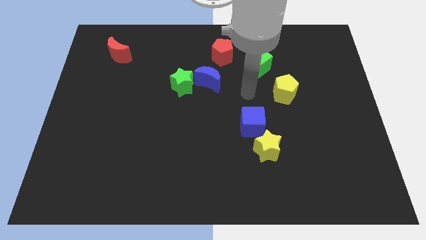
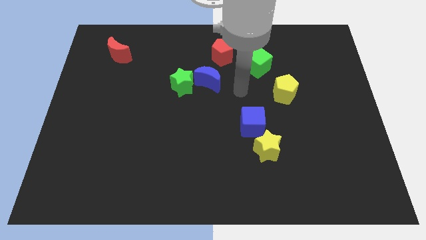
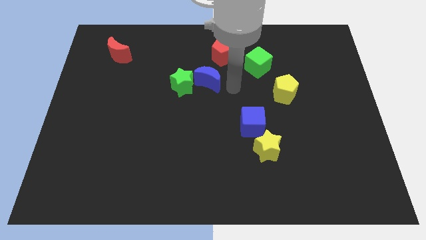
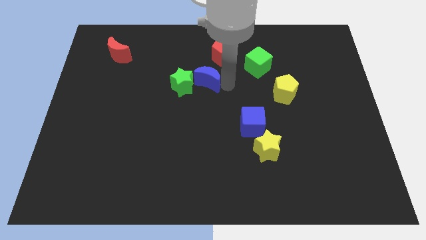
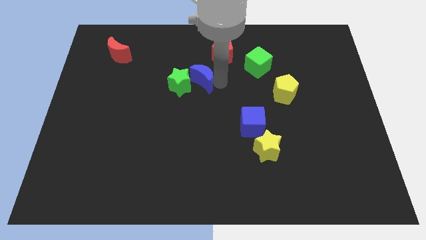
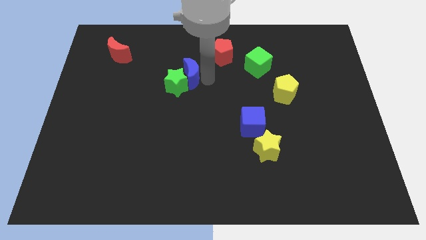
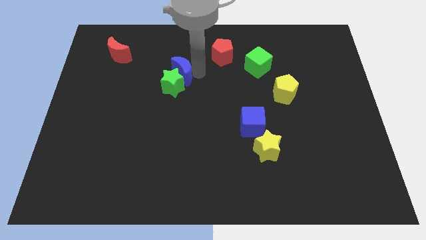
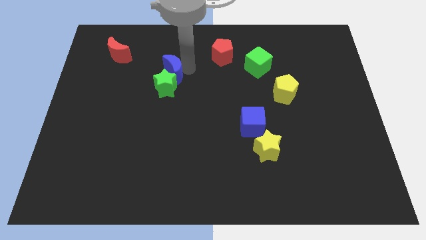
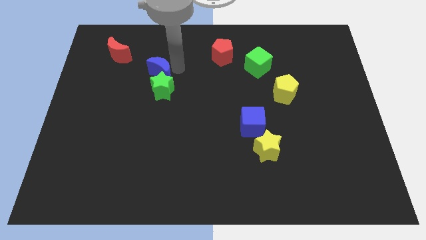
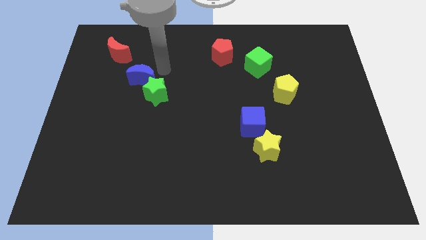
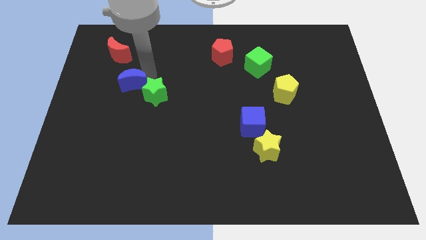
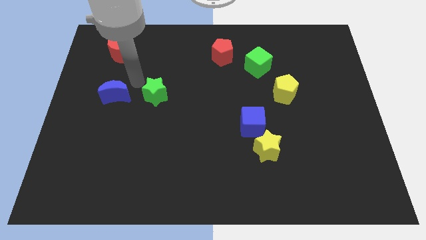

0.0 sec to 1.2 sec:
move the green star away from the blue moon

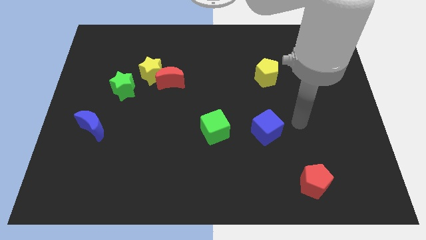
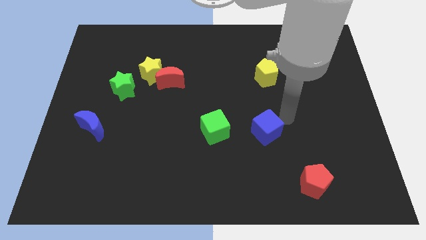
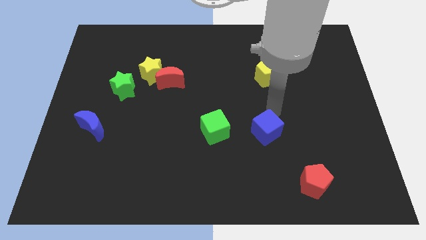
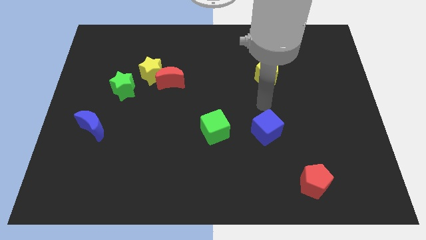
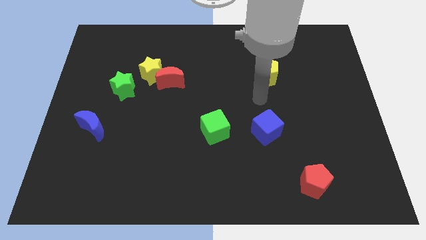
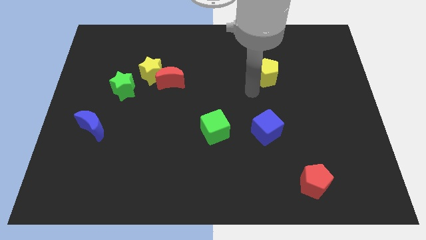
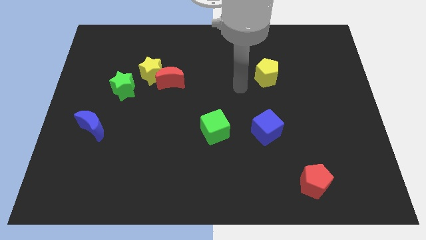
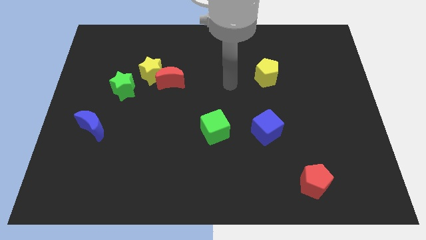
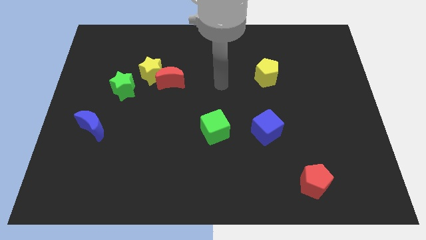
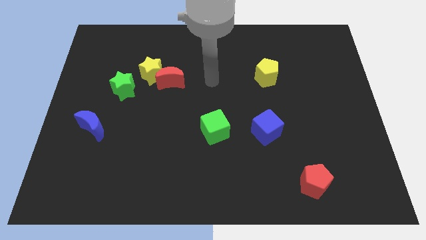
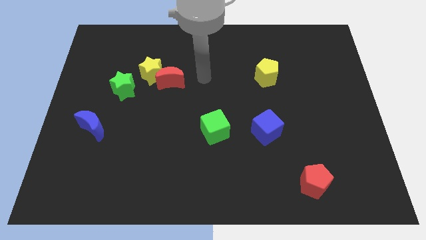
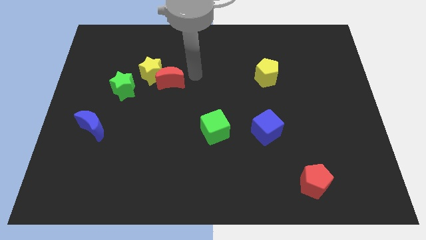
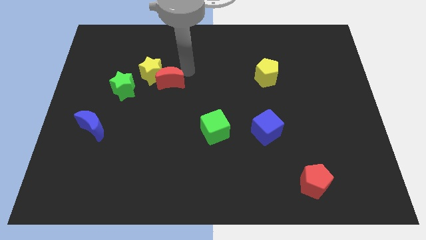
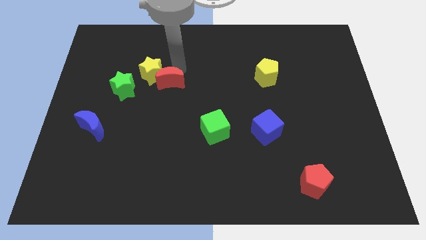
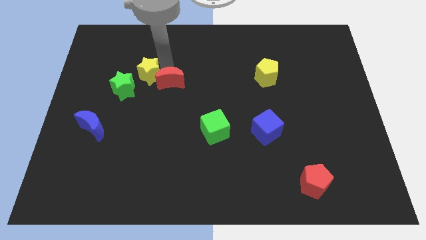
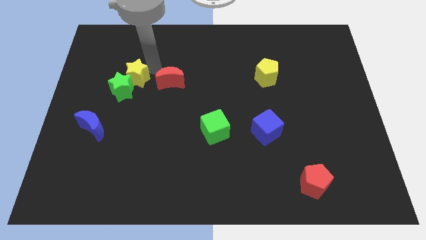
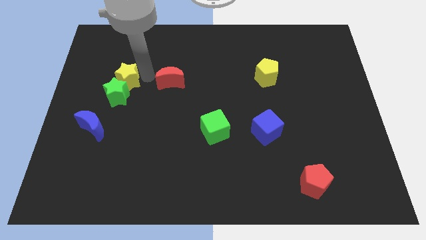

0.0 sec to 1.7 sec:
separate the red moon from the yellow star

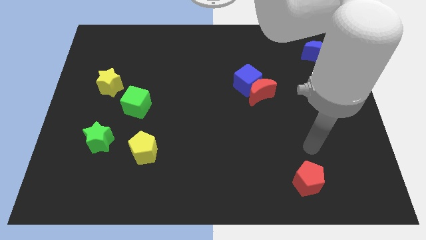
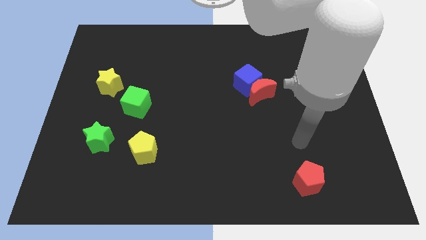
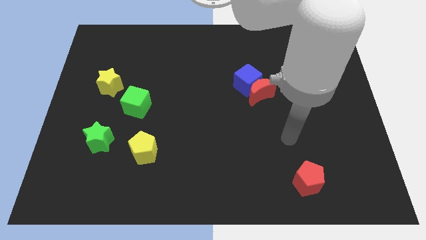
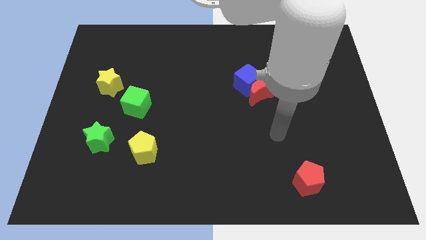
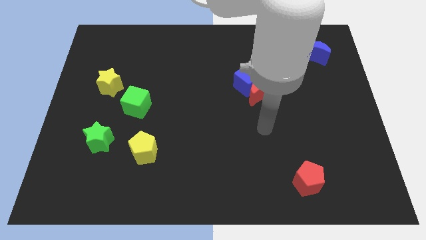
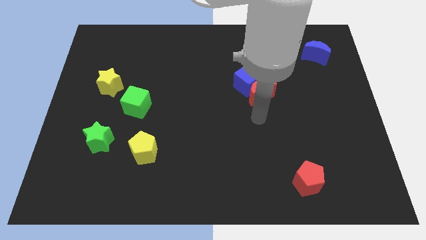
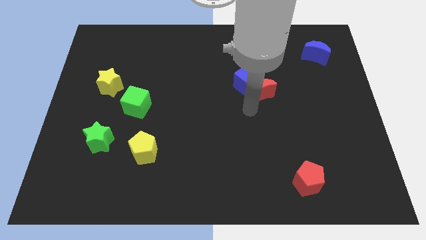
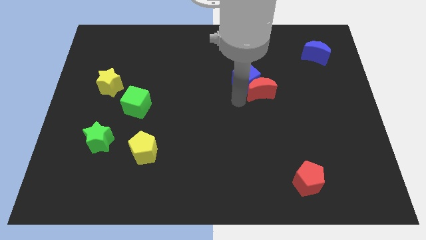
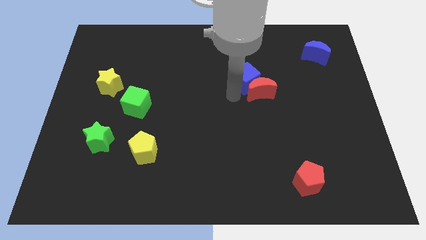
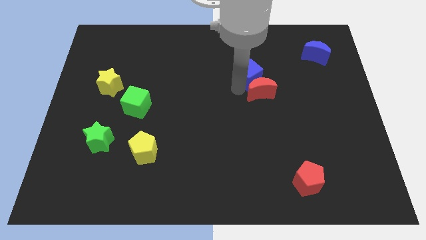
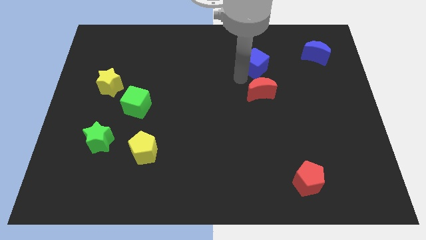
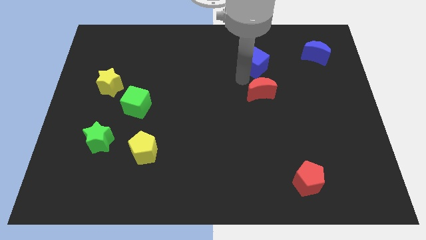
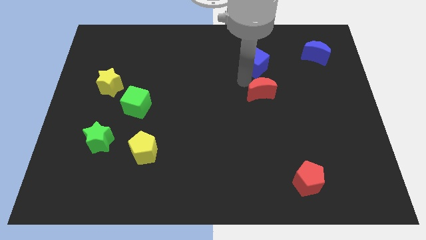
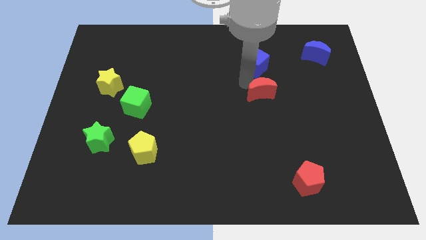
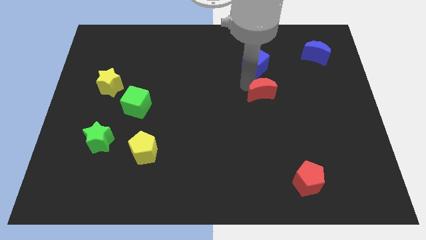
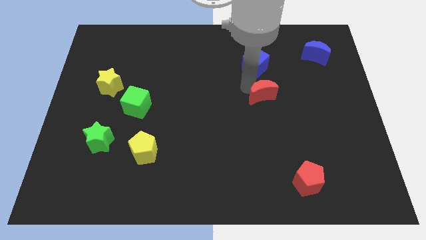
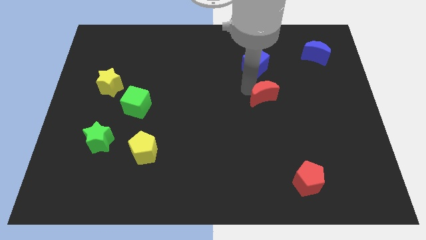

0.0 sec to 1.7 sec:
separate the red moon from the blue cube

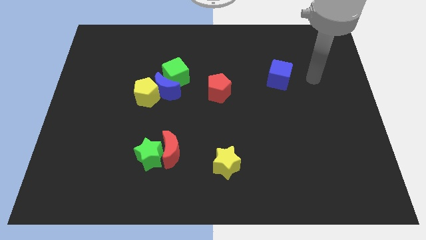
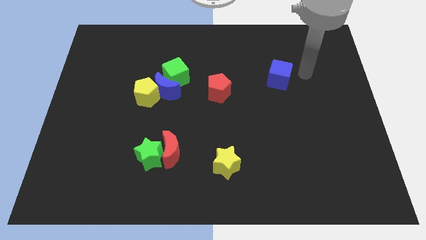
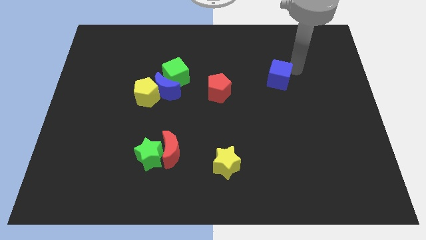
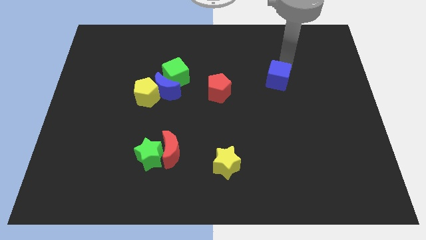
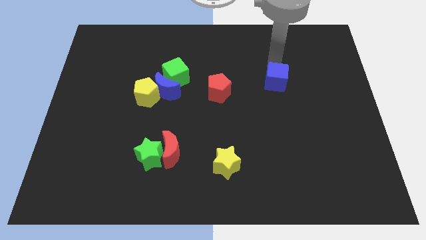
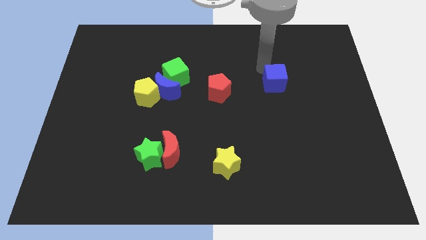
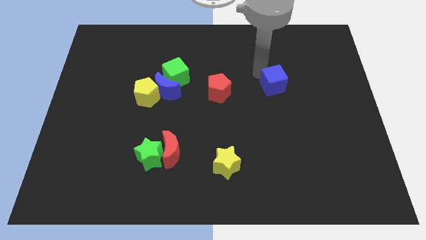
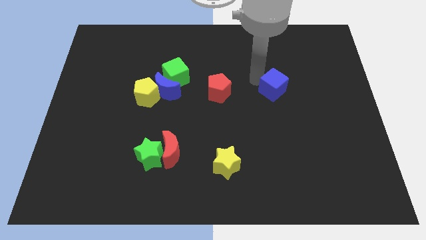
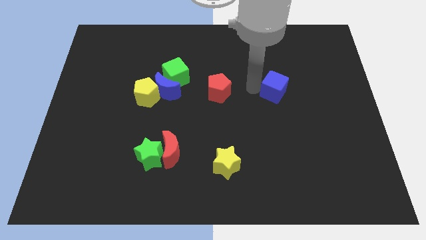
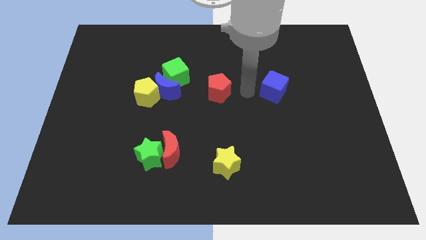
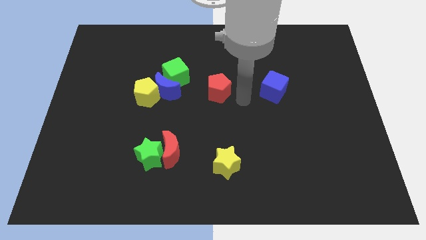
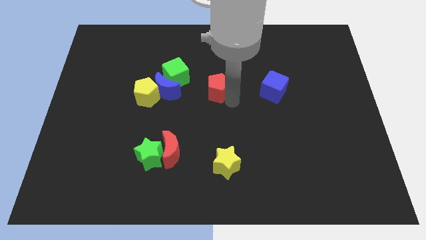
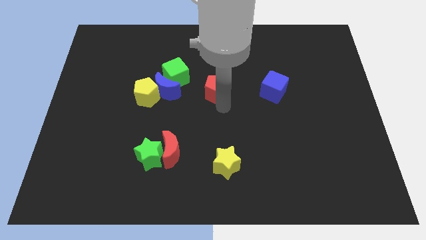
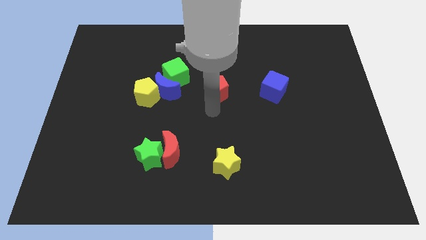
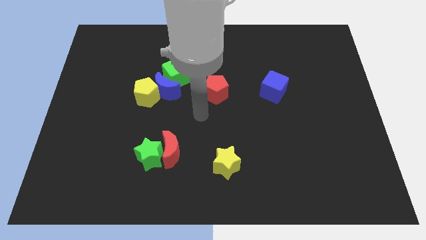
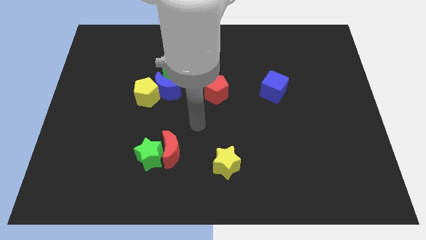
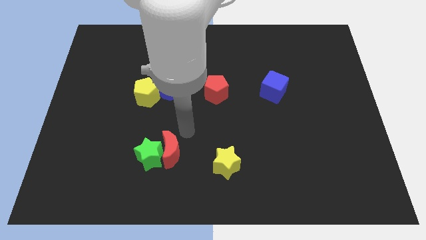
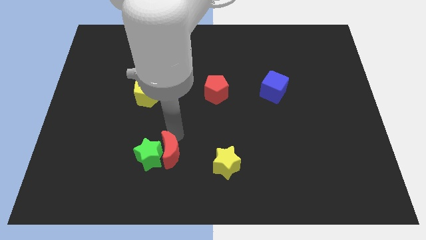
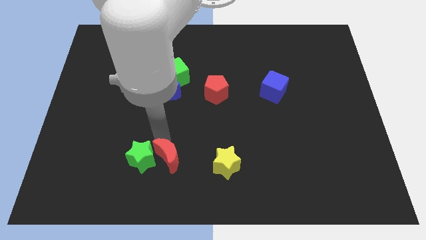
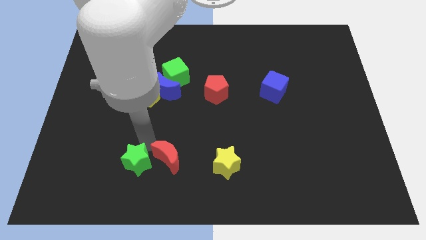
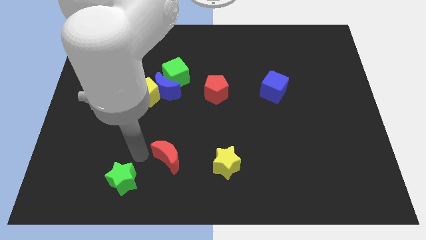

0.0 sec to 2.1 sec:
separate the red moon from the green star

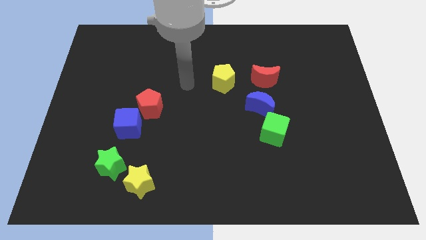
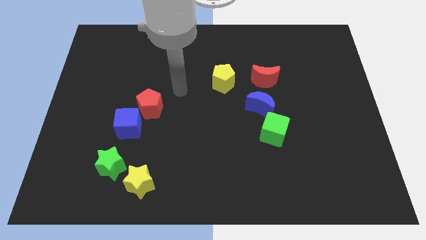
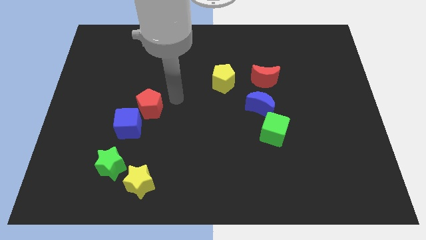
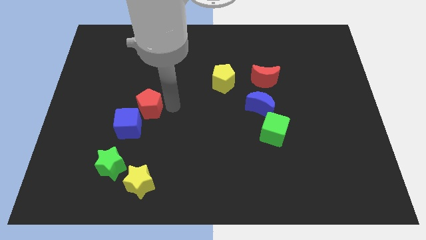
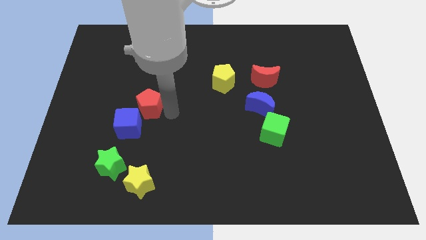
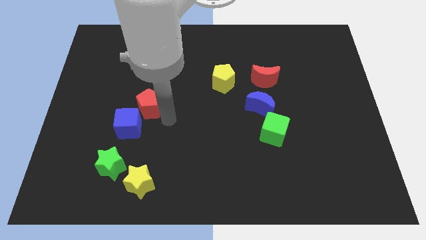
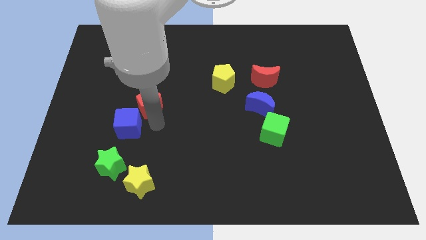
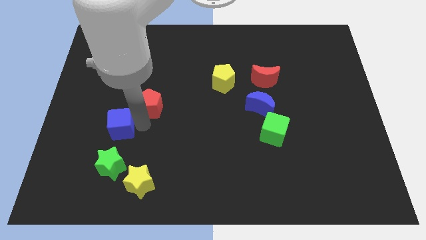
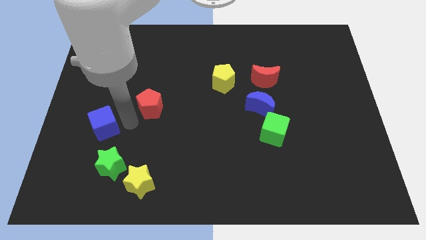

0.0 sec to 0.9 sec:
separate the red pentagon from the blue cube

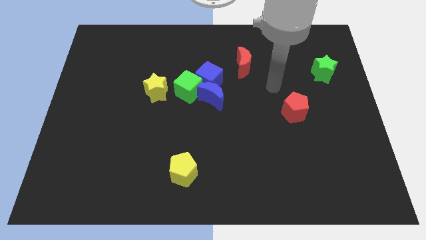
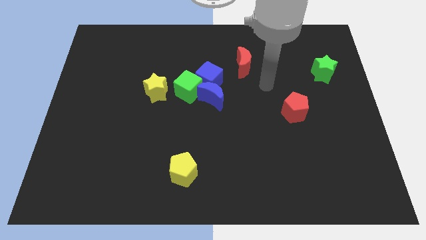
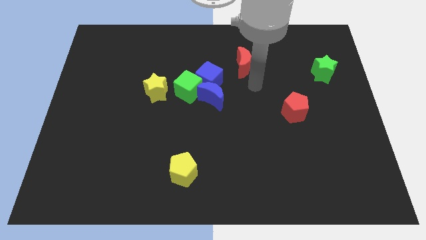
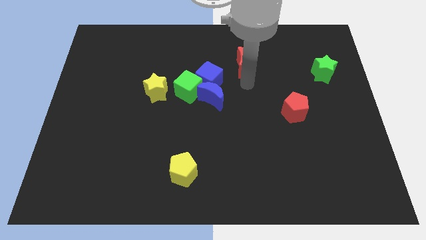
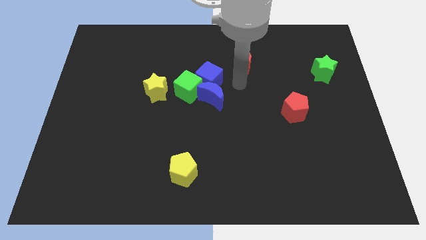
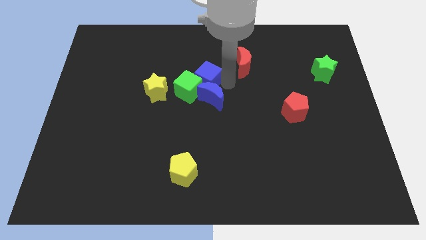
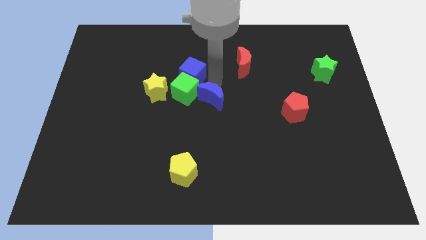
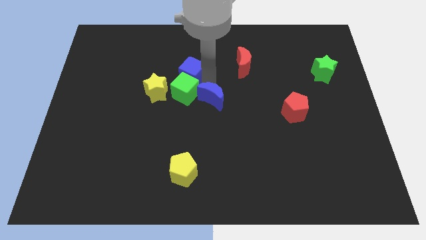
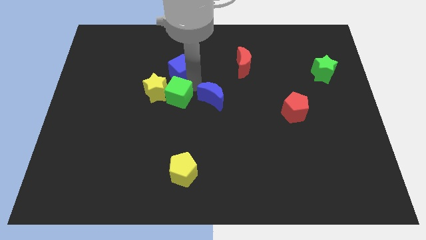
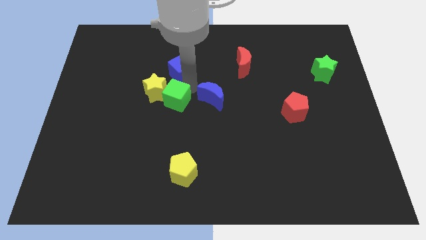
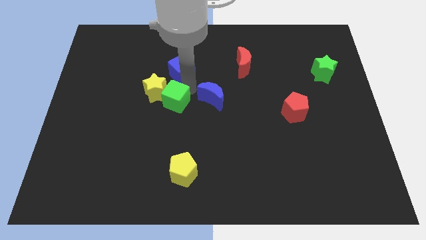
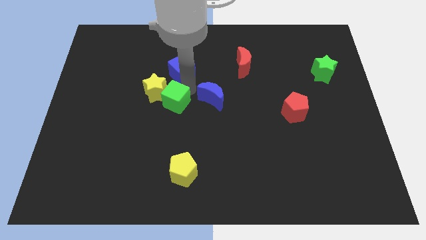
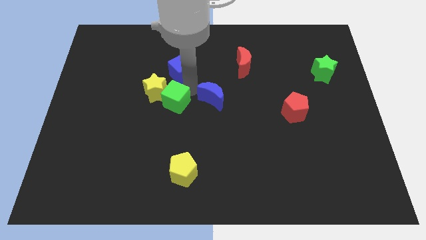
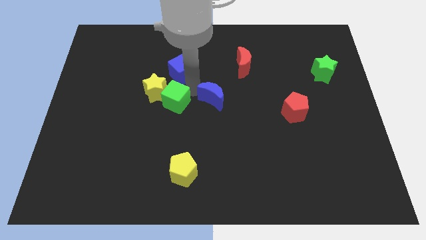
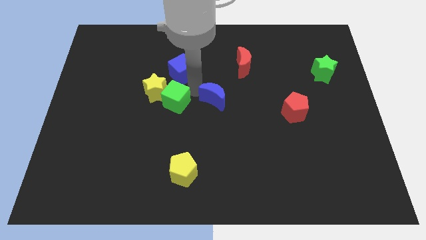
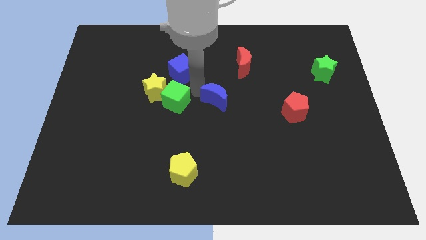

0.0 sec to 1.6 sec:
pull the blue moon apart from the blue cube and green cube

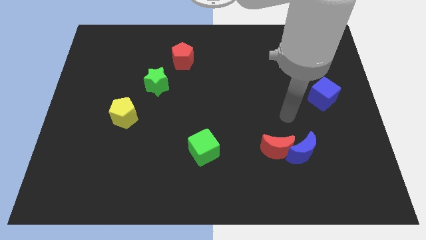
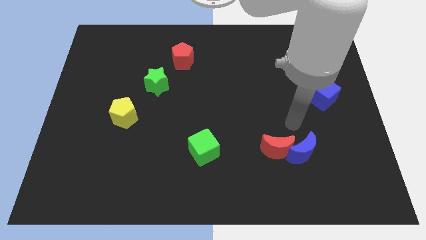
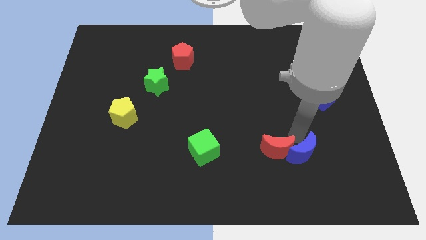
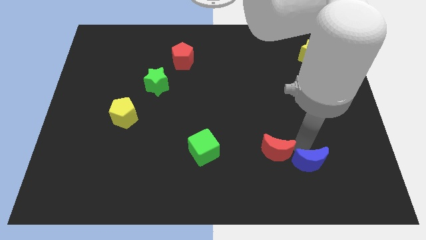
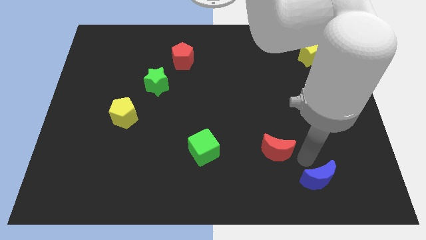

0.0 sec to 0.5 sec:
pull the red moon apart from the blue moon
